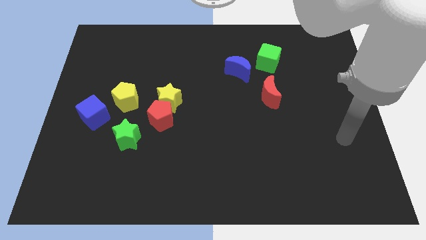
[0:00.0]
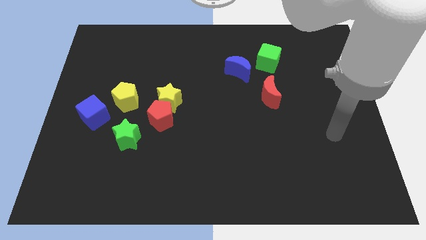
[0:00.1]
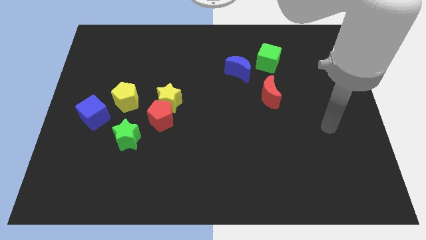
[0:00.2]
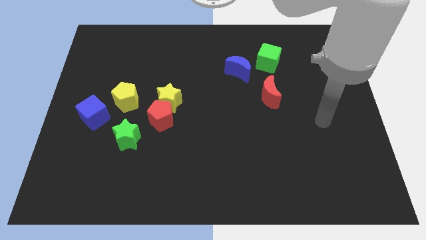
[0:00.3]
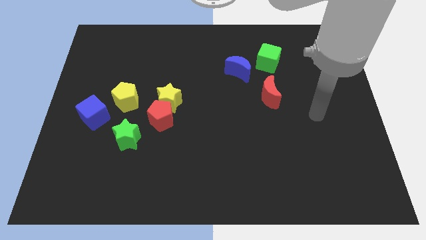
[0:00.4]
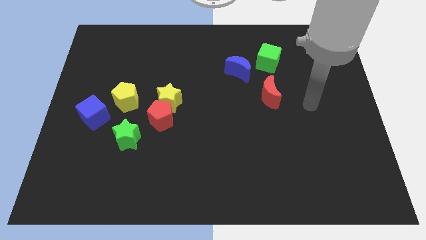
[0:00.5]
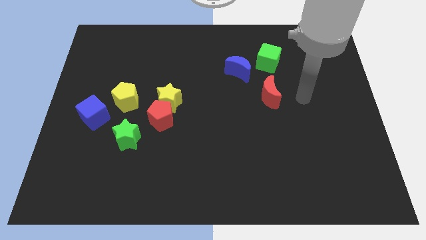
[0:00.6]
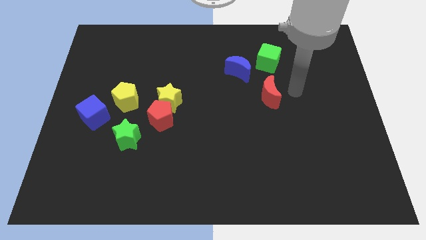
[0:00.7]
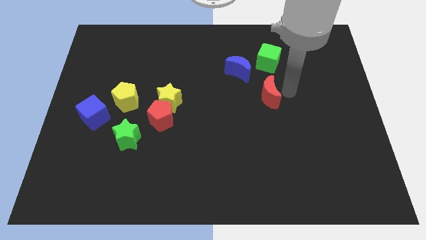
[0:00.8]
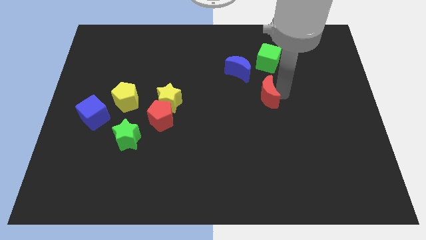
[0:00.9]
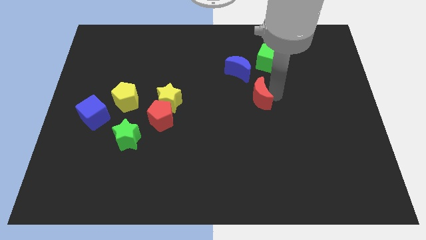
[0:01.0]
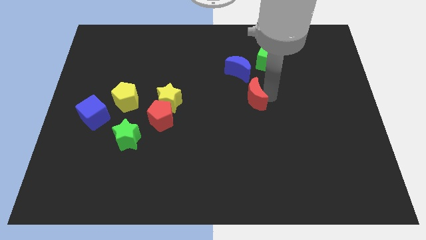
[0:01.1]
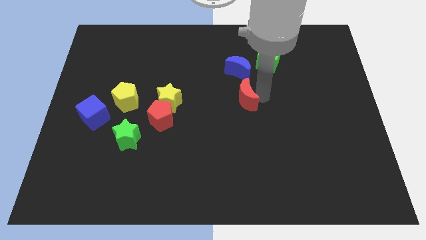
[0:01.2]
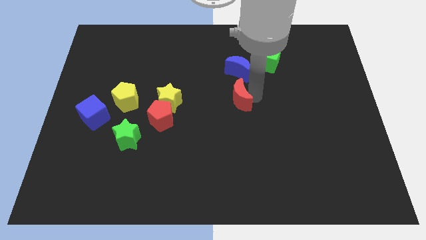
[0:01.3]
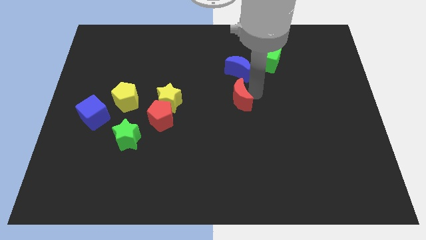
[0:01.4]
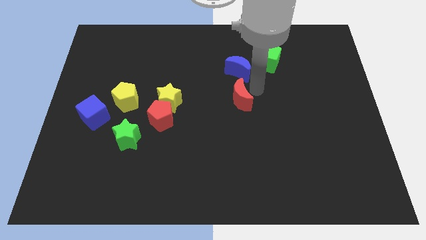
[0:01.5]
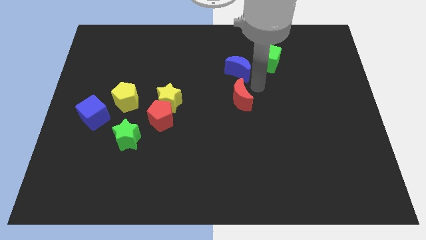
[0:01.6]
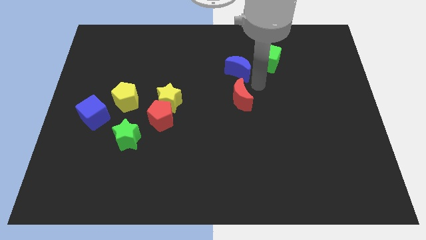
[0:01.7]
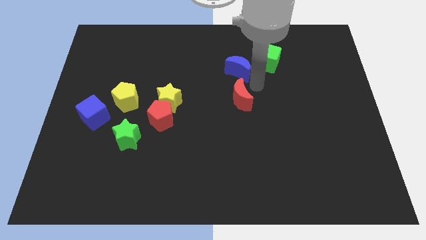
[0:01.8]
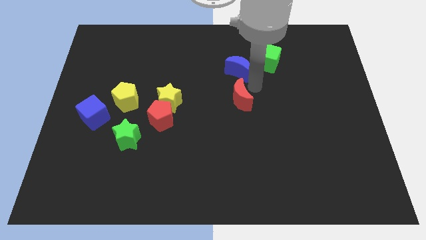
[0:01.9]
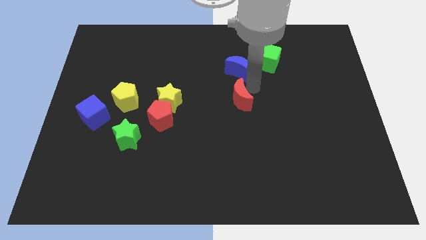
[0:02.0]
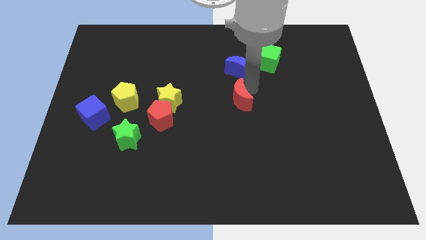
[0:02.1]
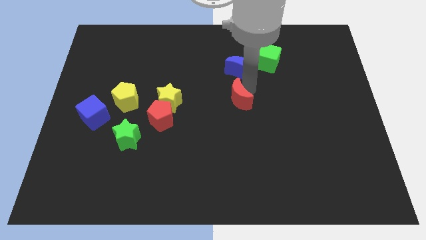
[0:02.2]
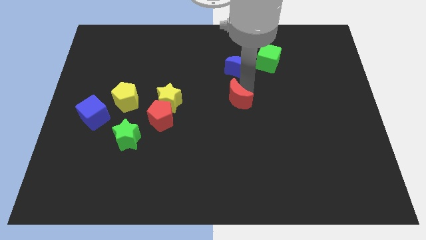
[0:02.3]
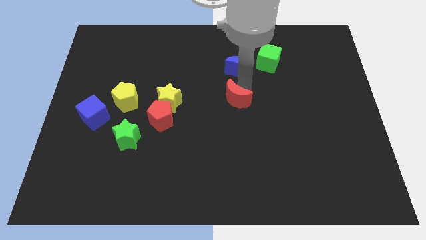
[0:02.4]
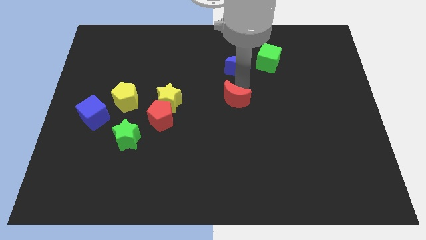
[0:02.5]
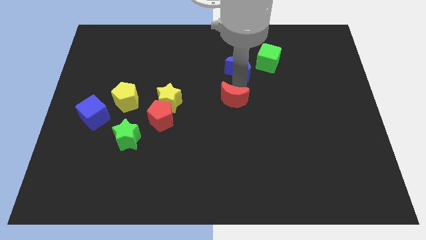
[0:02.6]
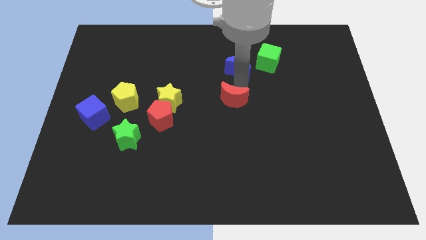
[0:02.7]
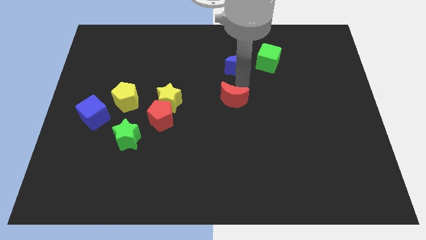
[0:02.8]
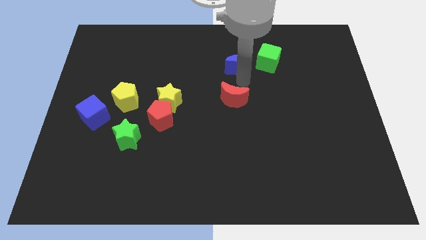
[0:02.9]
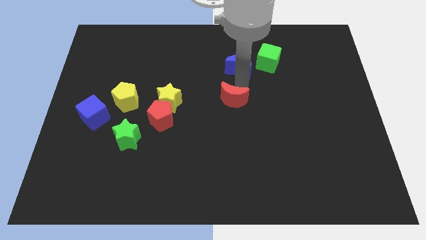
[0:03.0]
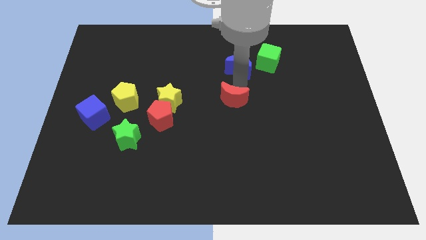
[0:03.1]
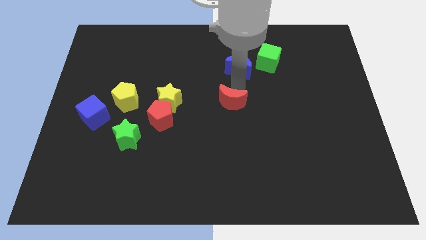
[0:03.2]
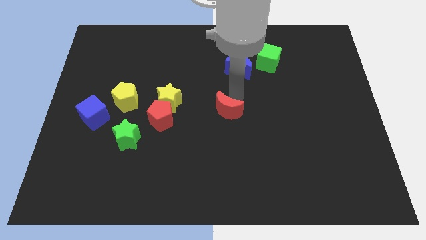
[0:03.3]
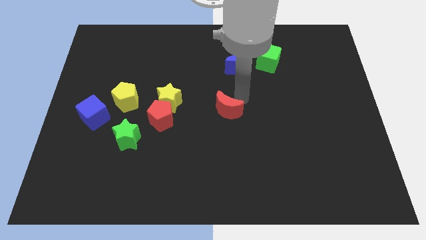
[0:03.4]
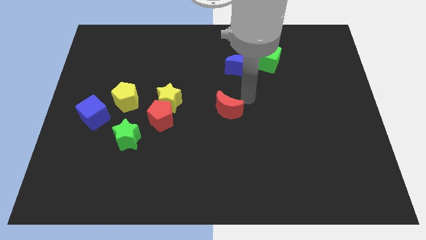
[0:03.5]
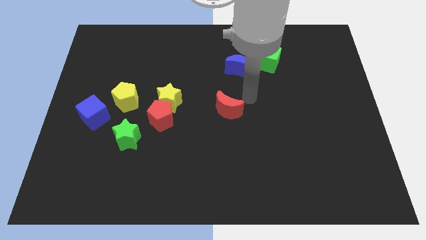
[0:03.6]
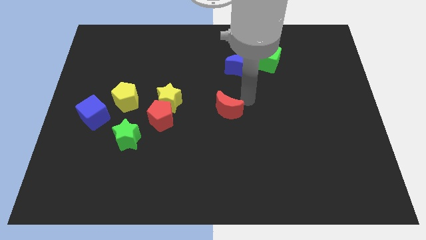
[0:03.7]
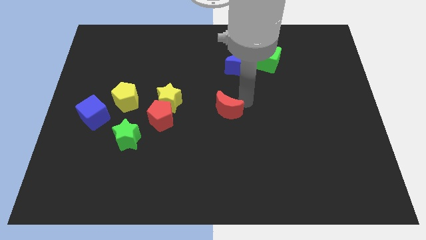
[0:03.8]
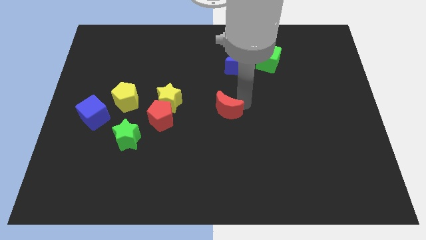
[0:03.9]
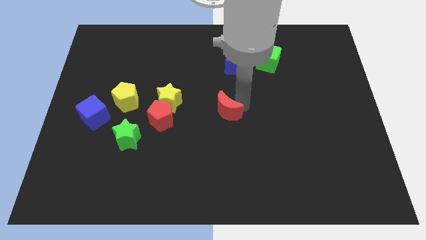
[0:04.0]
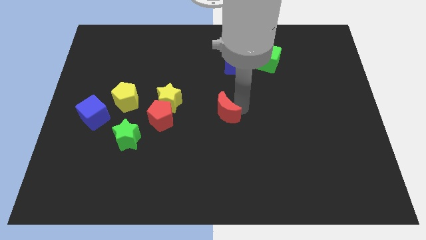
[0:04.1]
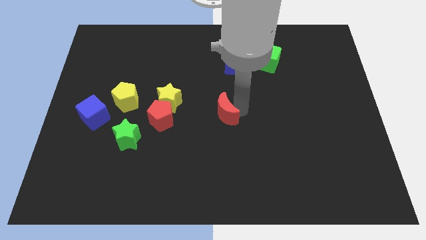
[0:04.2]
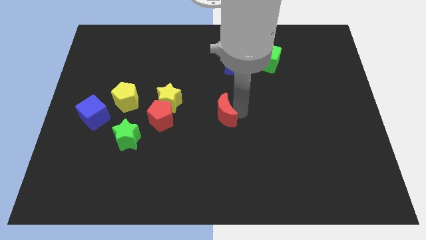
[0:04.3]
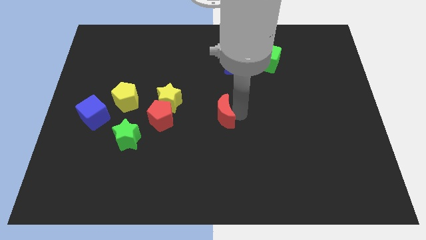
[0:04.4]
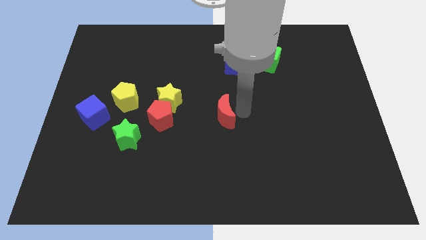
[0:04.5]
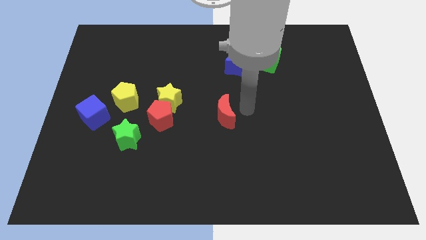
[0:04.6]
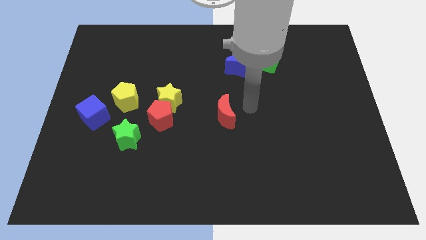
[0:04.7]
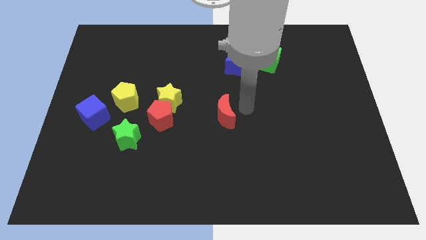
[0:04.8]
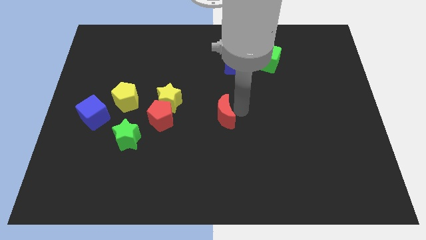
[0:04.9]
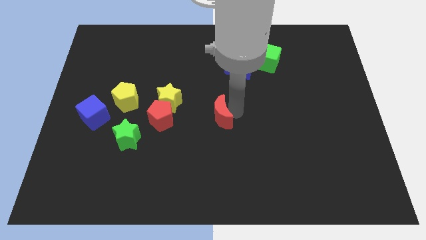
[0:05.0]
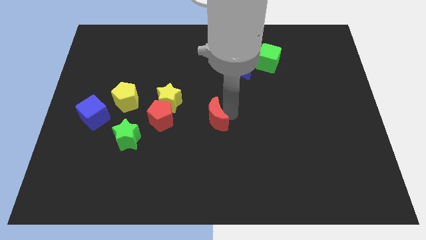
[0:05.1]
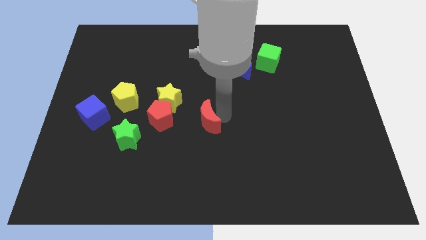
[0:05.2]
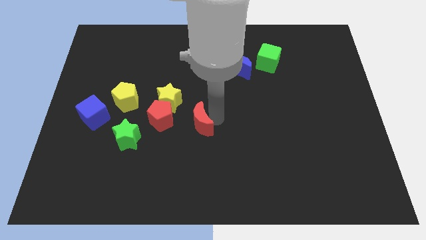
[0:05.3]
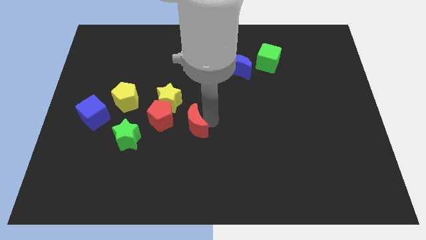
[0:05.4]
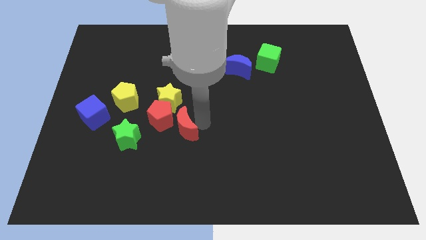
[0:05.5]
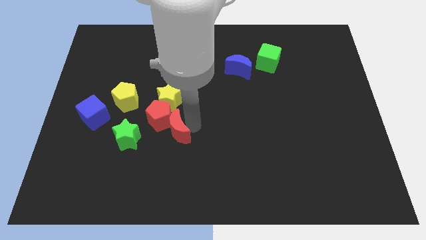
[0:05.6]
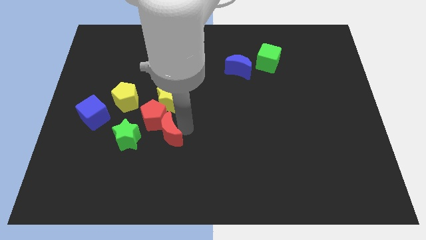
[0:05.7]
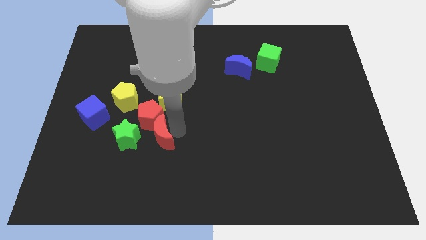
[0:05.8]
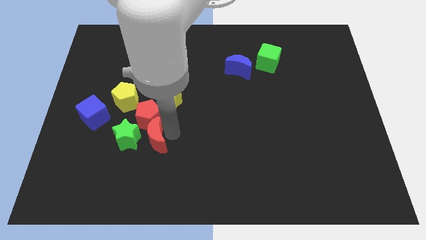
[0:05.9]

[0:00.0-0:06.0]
push the red moon to the green star

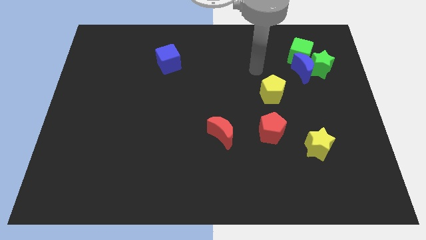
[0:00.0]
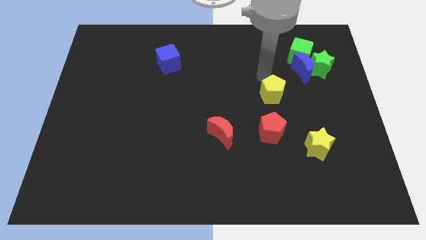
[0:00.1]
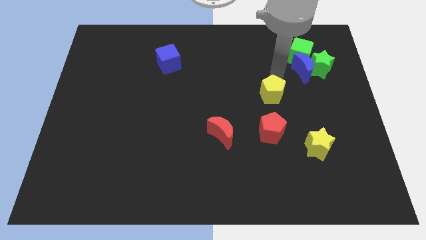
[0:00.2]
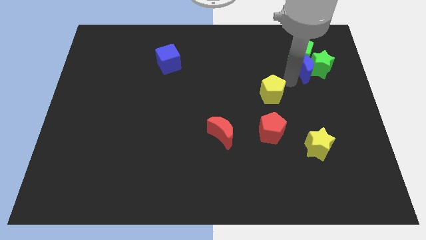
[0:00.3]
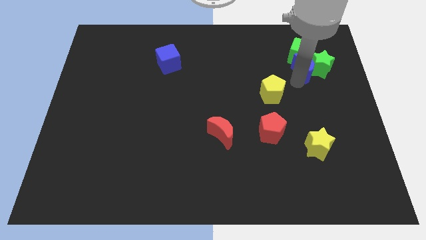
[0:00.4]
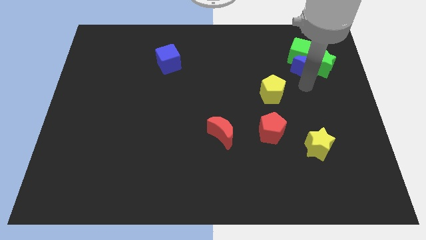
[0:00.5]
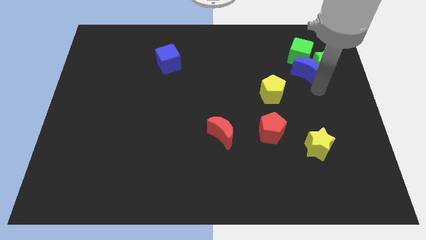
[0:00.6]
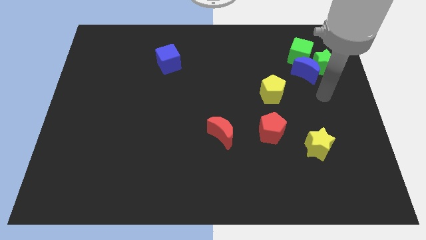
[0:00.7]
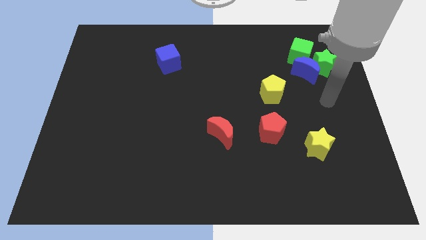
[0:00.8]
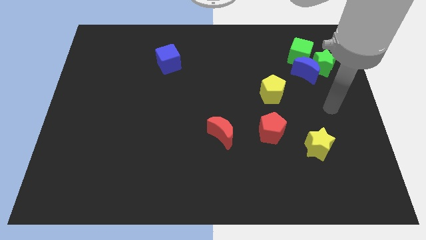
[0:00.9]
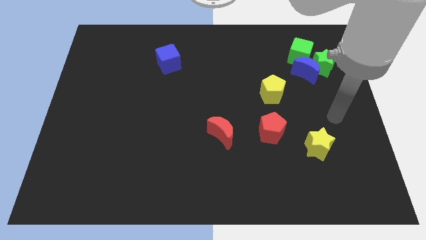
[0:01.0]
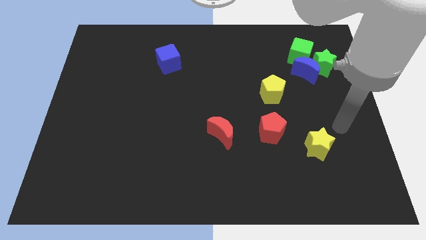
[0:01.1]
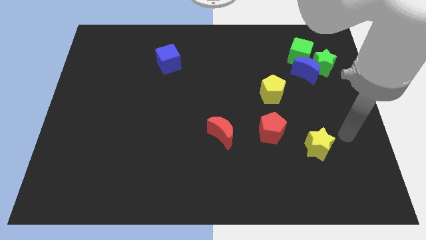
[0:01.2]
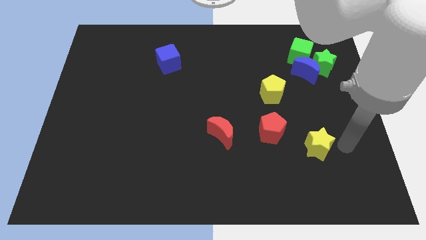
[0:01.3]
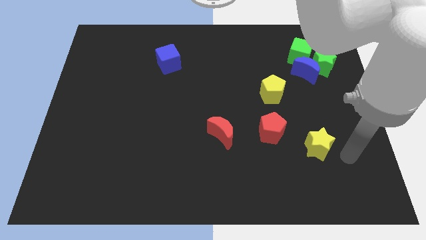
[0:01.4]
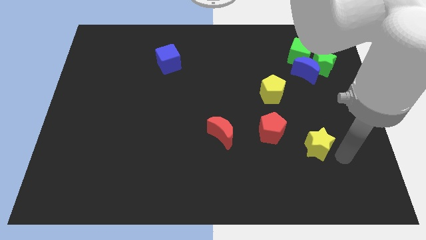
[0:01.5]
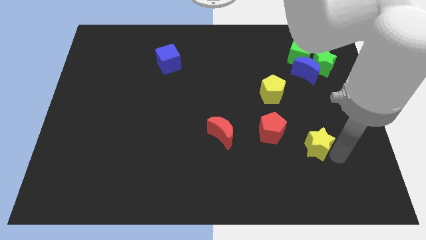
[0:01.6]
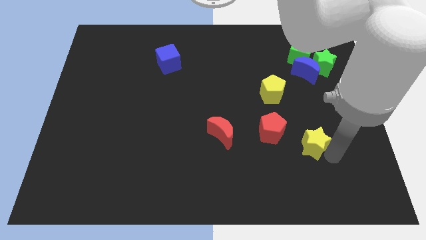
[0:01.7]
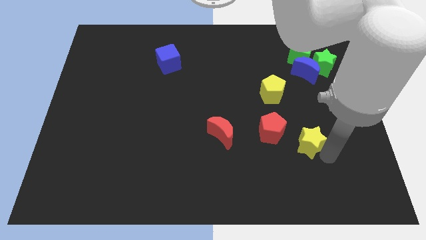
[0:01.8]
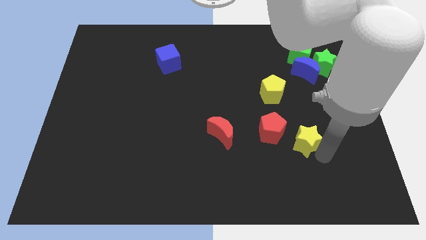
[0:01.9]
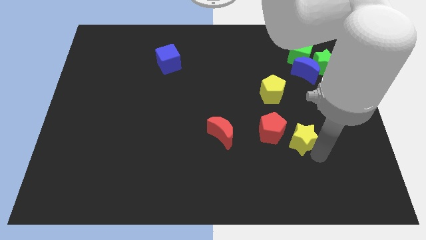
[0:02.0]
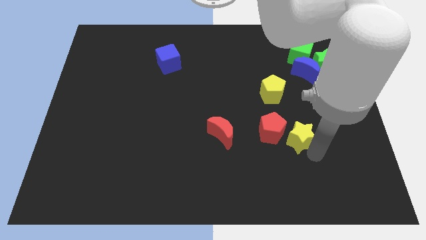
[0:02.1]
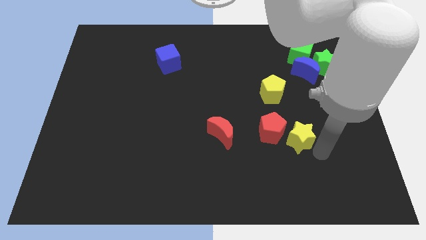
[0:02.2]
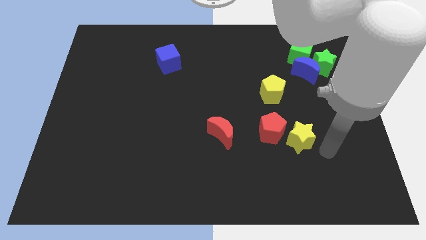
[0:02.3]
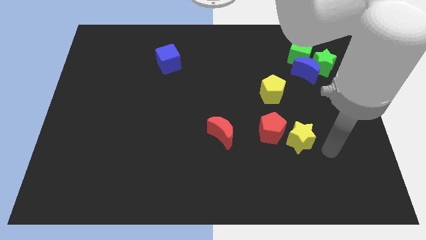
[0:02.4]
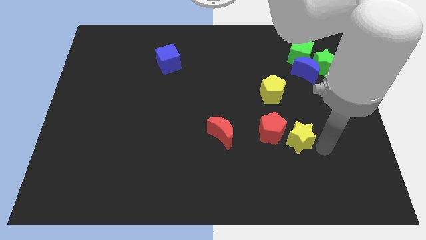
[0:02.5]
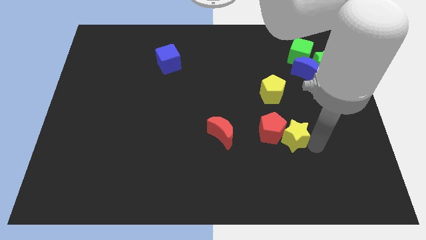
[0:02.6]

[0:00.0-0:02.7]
slide the yellow star to the red pentagon
